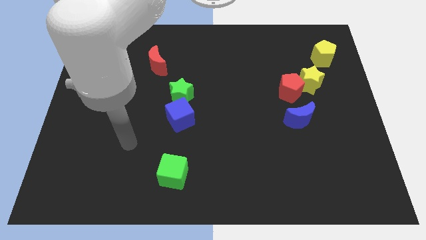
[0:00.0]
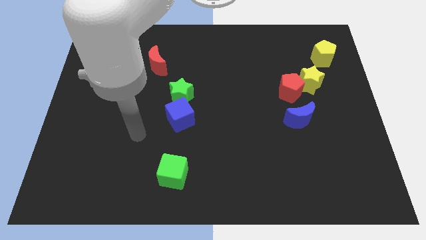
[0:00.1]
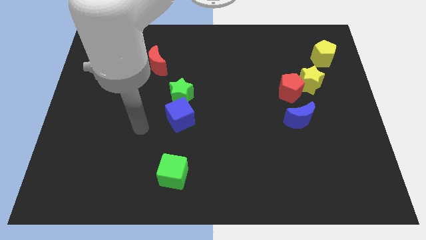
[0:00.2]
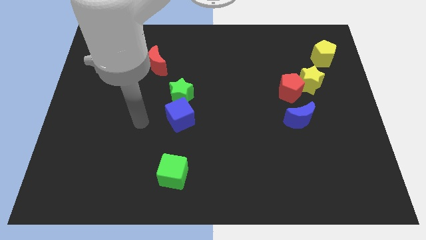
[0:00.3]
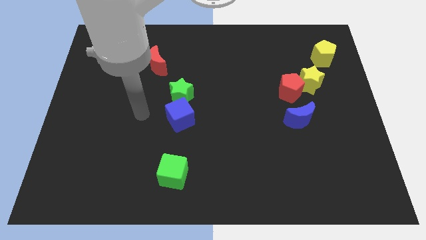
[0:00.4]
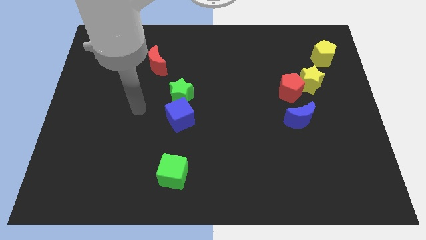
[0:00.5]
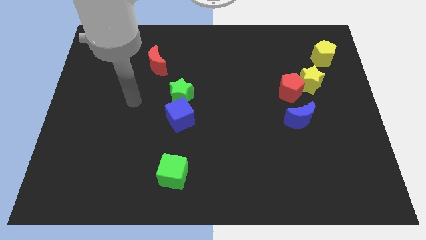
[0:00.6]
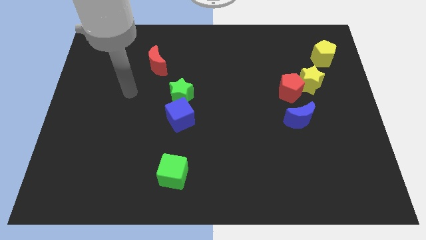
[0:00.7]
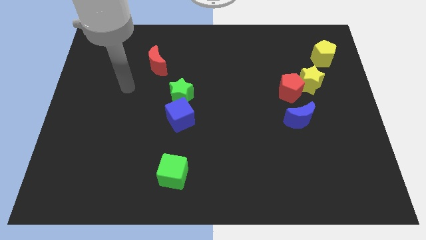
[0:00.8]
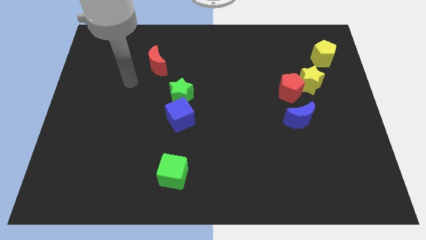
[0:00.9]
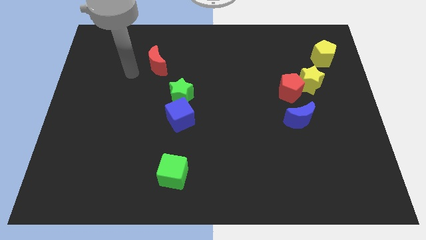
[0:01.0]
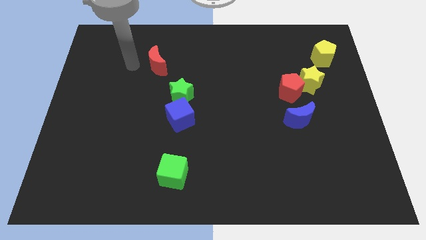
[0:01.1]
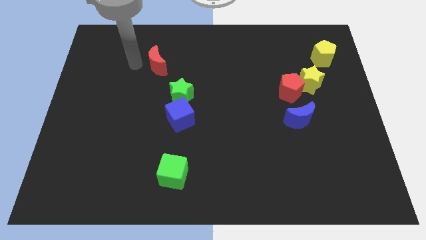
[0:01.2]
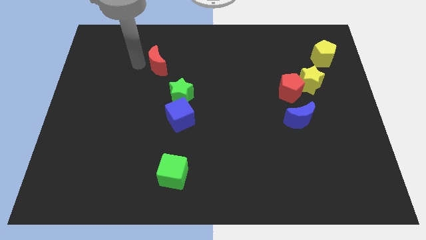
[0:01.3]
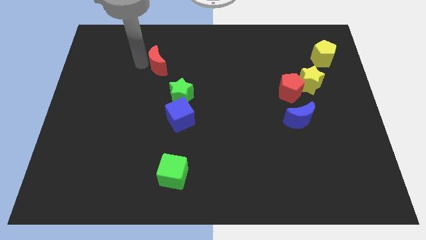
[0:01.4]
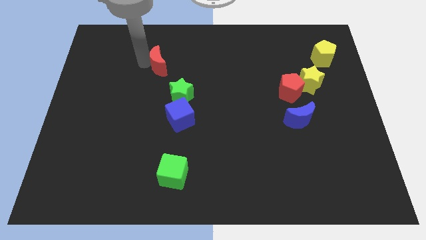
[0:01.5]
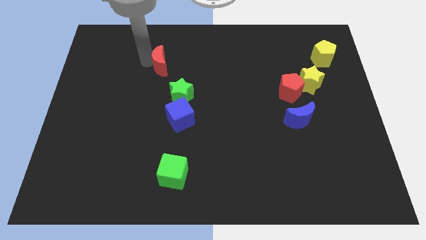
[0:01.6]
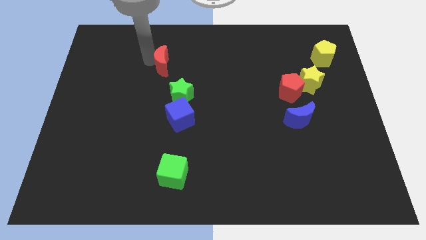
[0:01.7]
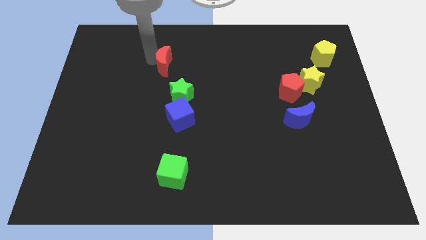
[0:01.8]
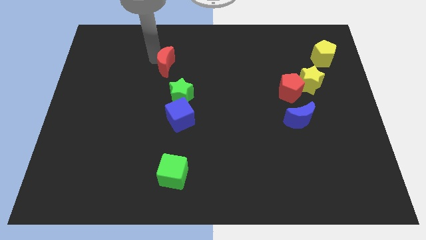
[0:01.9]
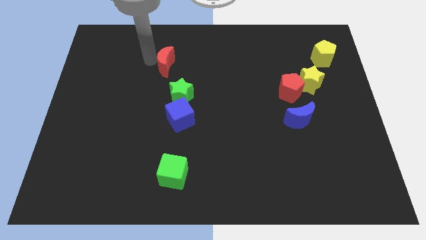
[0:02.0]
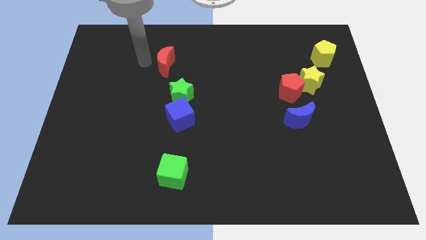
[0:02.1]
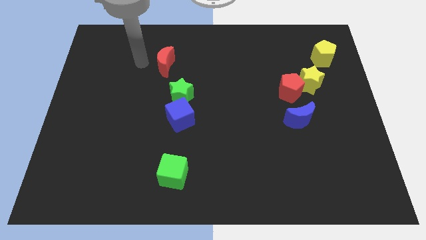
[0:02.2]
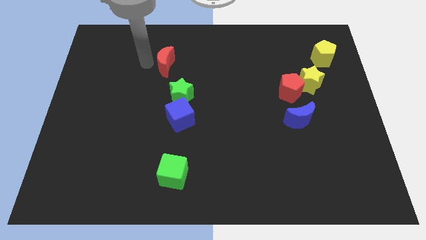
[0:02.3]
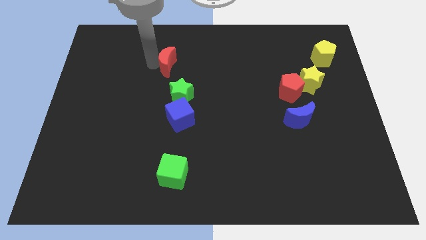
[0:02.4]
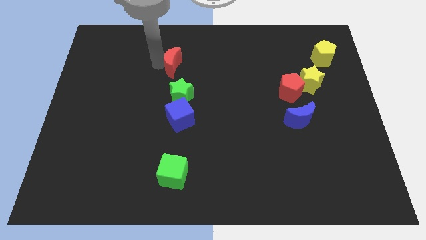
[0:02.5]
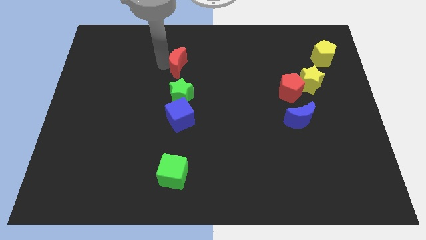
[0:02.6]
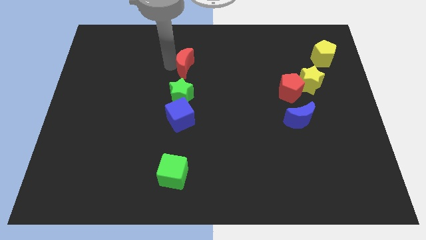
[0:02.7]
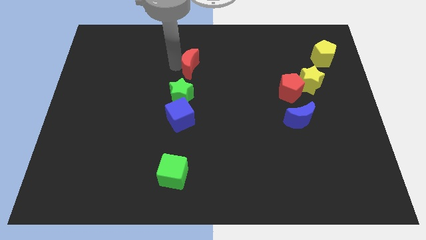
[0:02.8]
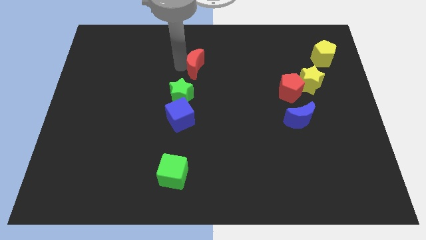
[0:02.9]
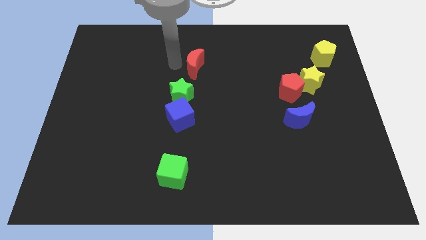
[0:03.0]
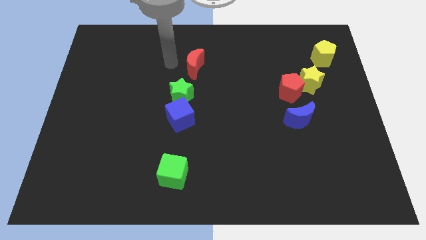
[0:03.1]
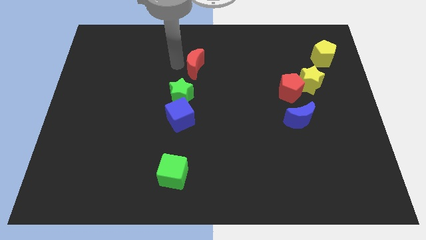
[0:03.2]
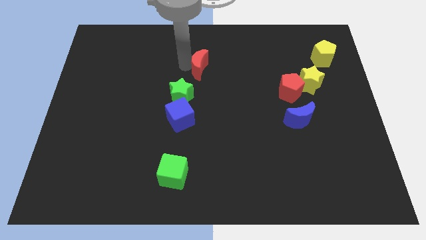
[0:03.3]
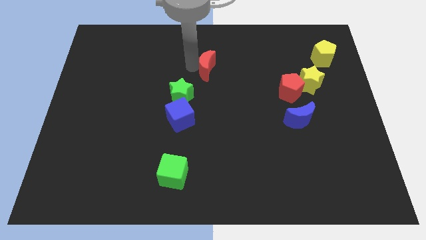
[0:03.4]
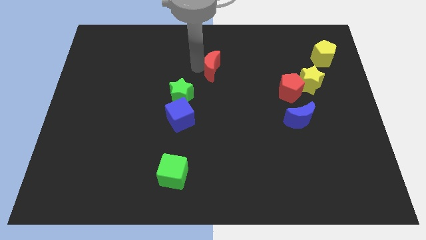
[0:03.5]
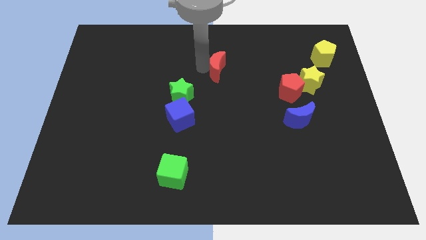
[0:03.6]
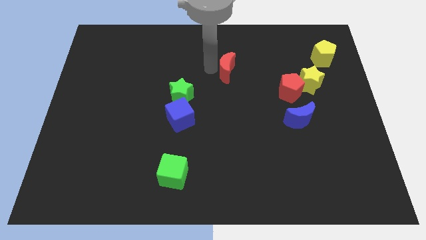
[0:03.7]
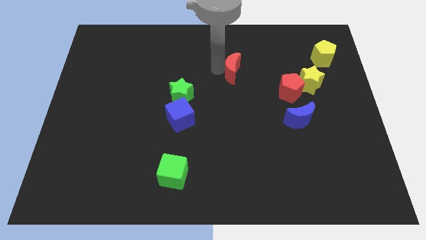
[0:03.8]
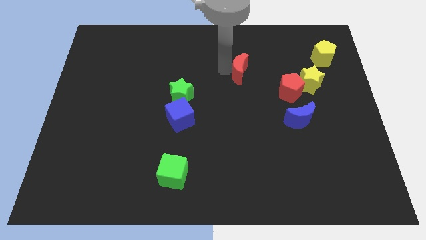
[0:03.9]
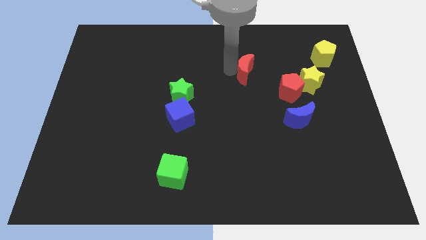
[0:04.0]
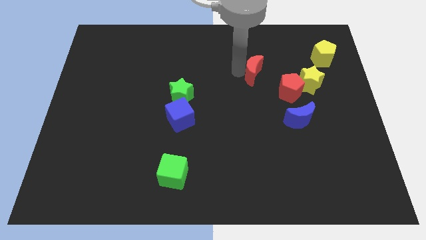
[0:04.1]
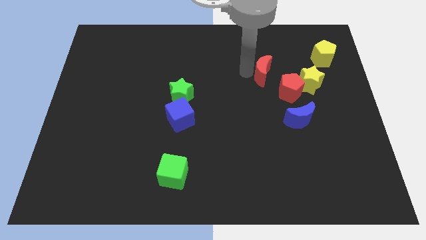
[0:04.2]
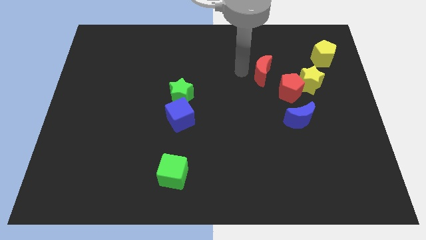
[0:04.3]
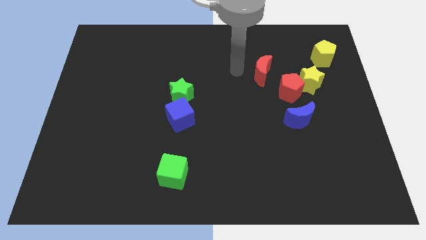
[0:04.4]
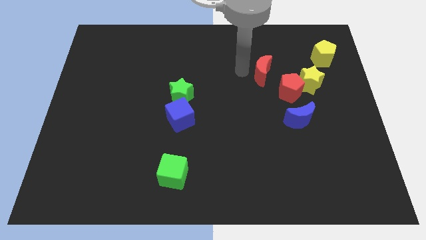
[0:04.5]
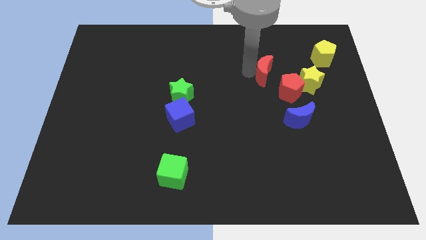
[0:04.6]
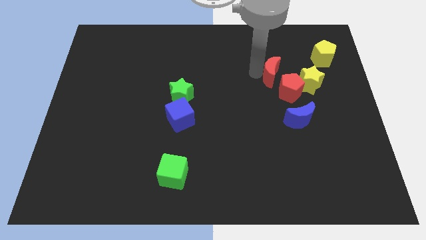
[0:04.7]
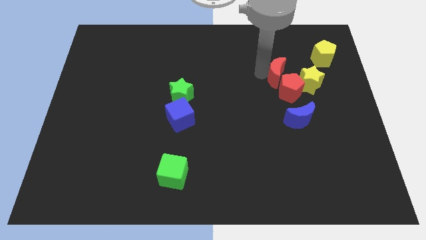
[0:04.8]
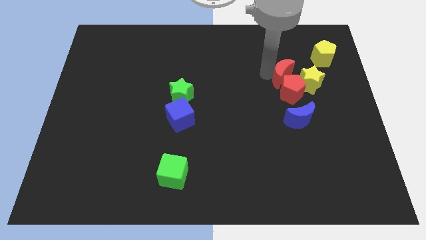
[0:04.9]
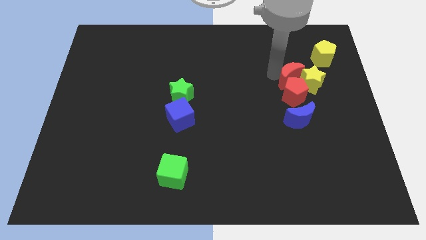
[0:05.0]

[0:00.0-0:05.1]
move the red moon next to the yellow star

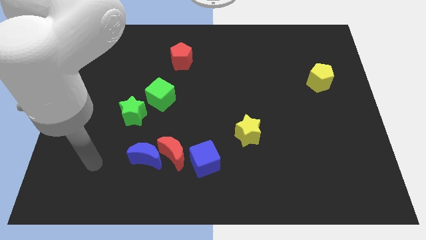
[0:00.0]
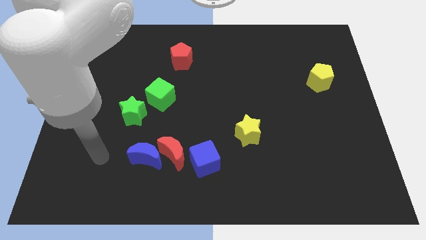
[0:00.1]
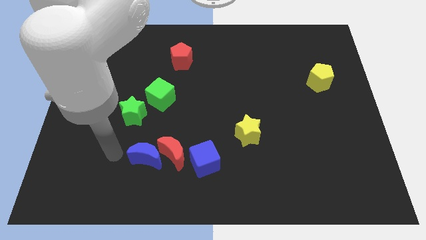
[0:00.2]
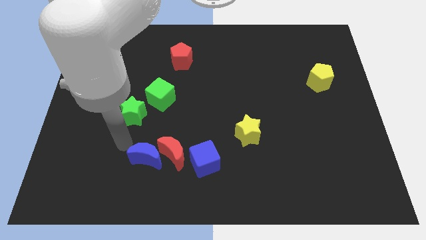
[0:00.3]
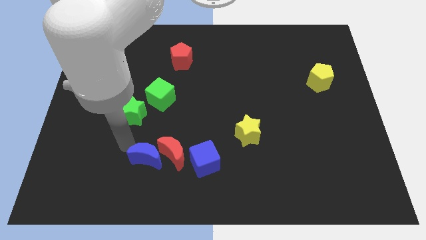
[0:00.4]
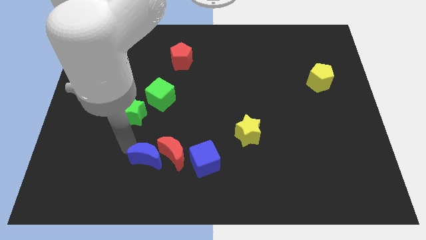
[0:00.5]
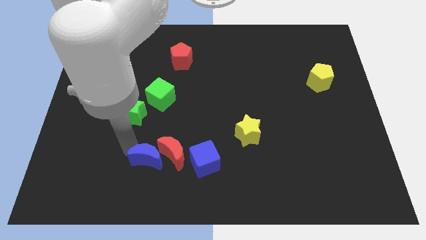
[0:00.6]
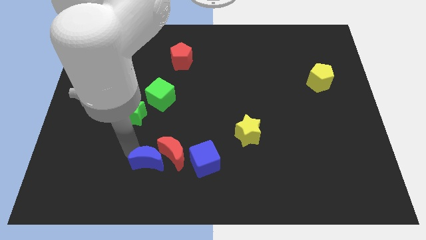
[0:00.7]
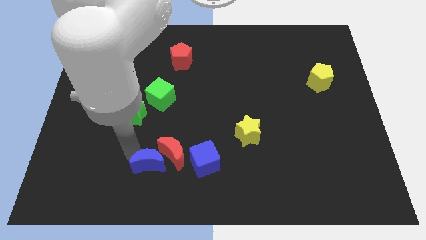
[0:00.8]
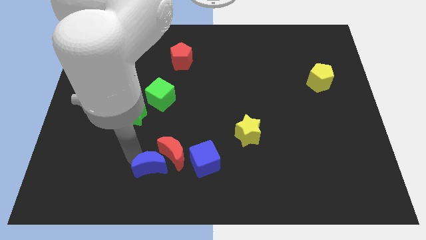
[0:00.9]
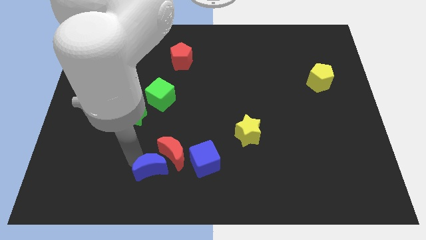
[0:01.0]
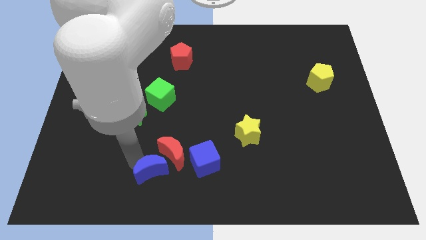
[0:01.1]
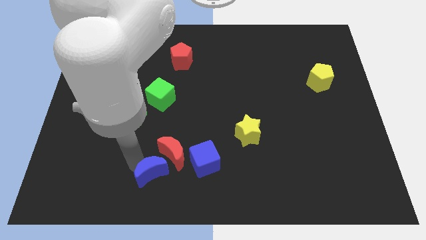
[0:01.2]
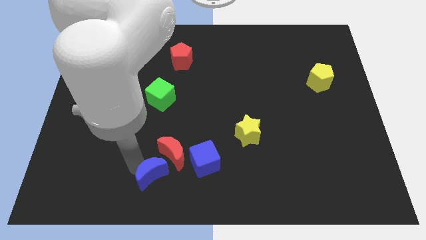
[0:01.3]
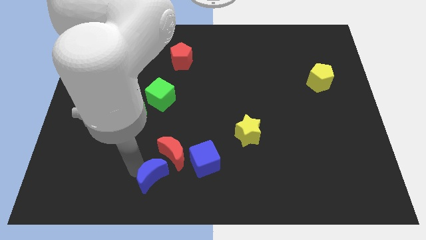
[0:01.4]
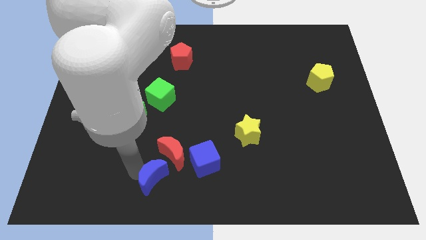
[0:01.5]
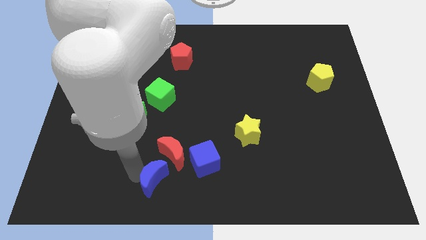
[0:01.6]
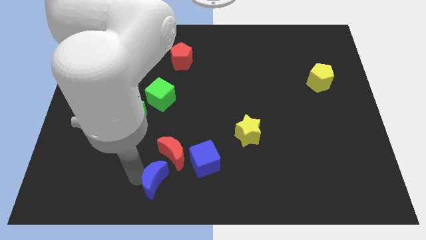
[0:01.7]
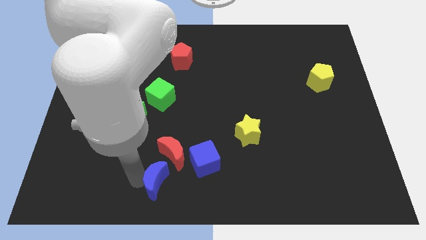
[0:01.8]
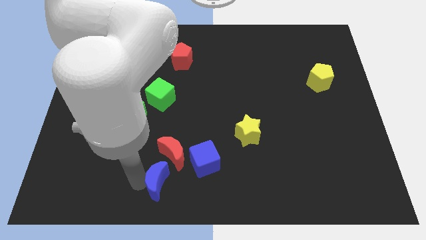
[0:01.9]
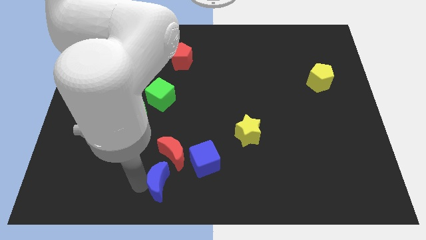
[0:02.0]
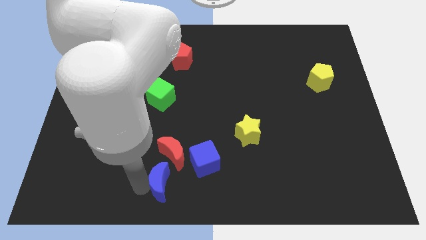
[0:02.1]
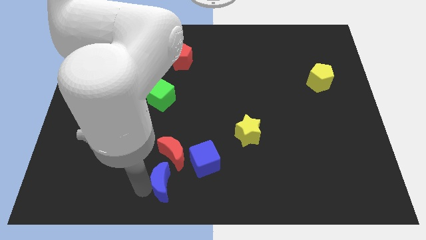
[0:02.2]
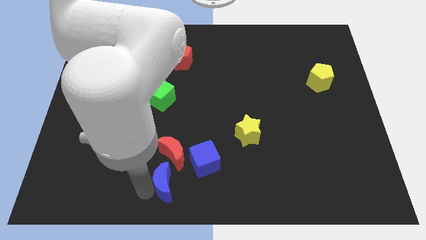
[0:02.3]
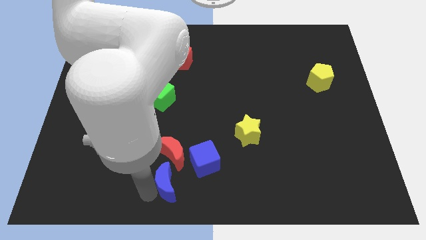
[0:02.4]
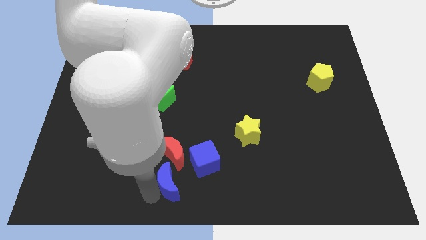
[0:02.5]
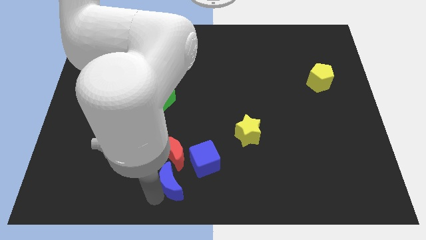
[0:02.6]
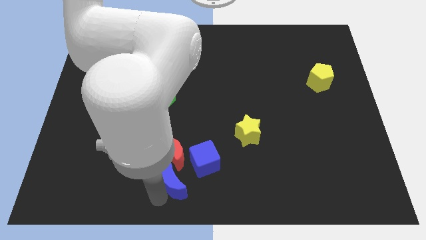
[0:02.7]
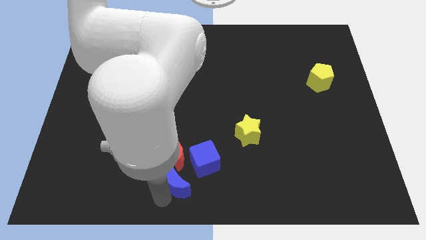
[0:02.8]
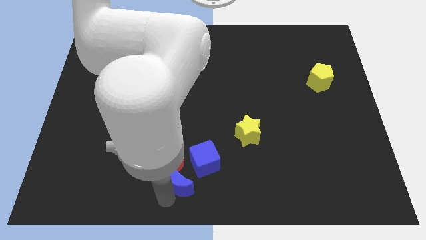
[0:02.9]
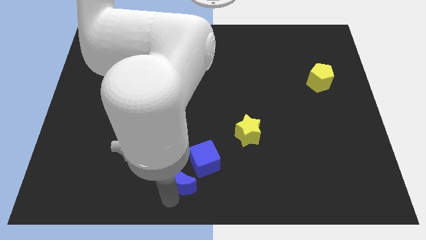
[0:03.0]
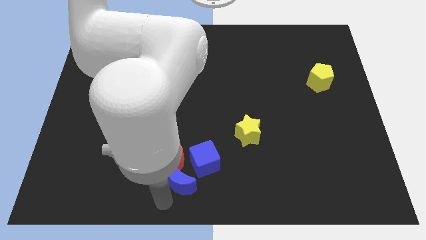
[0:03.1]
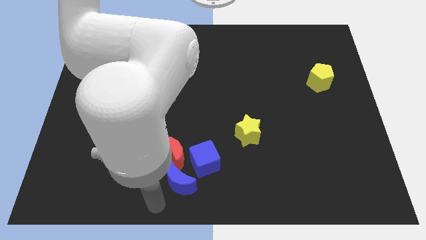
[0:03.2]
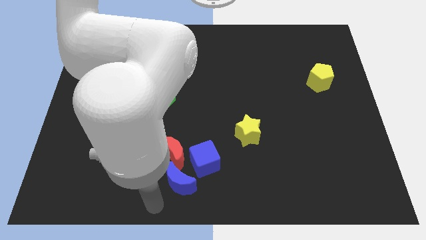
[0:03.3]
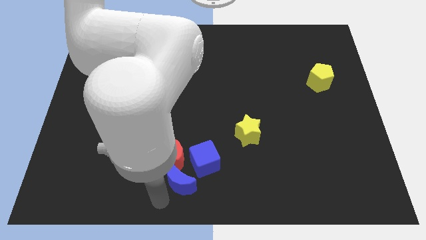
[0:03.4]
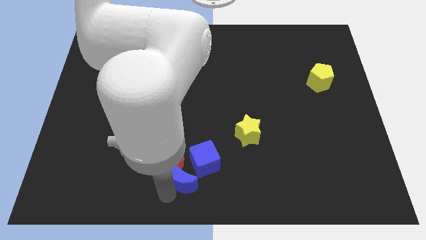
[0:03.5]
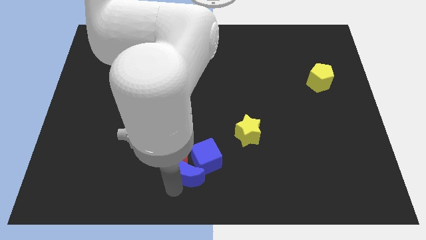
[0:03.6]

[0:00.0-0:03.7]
push the blue moon next to the blue cube
